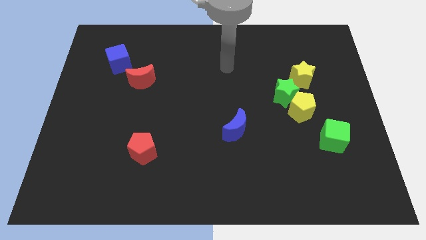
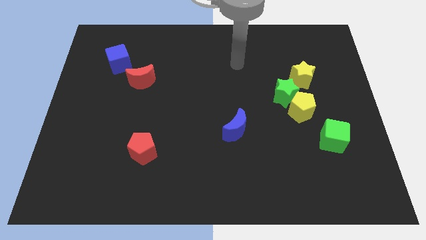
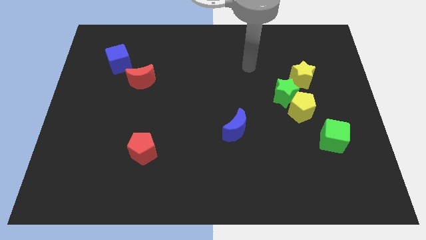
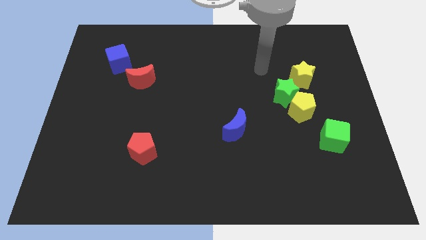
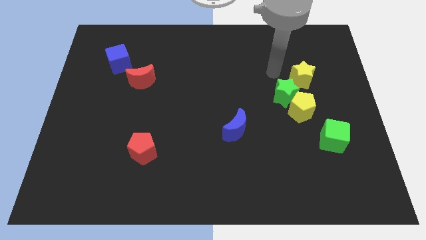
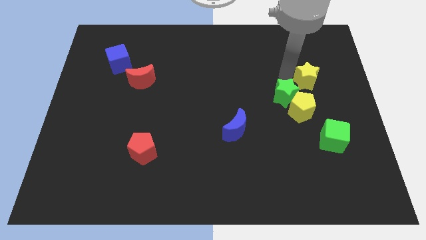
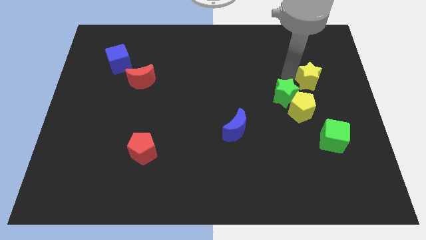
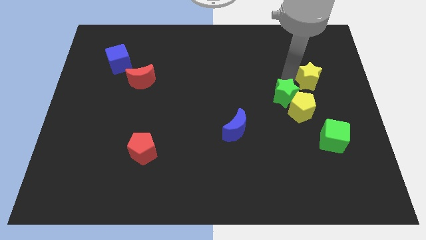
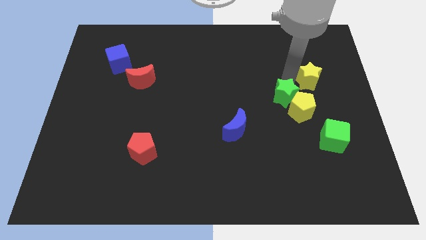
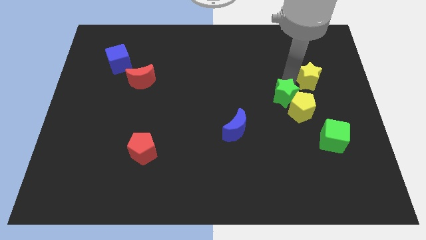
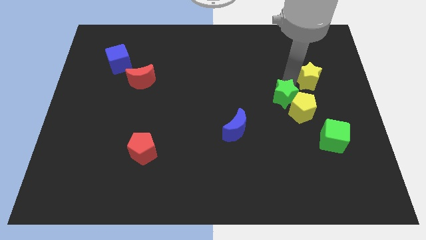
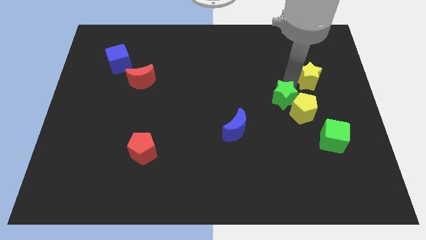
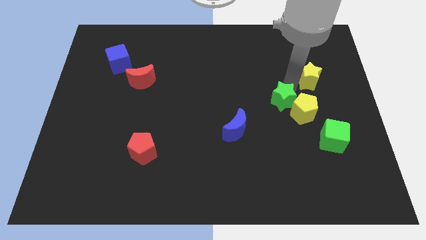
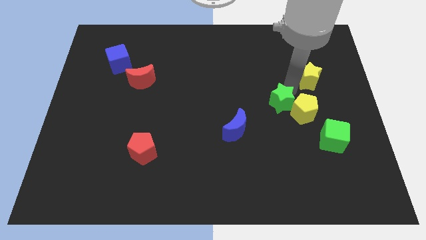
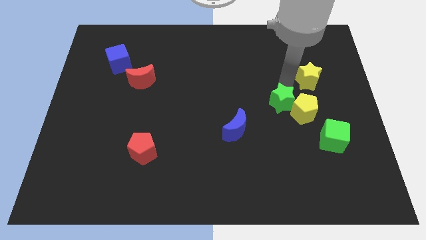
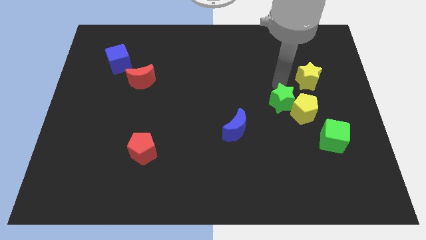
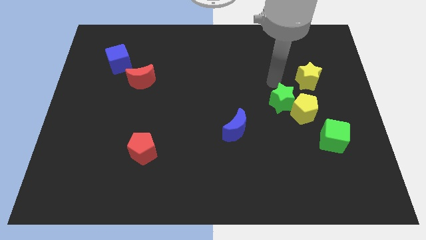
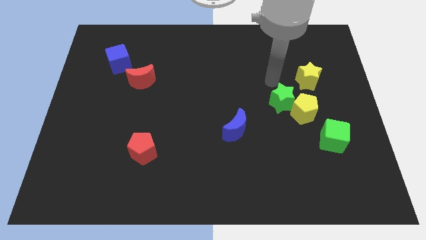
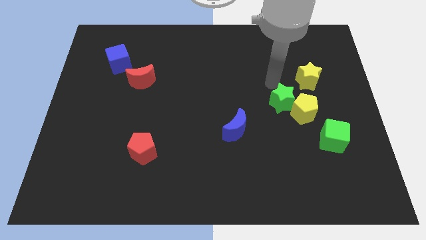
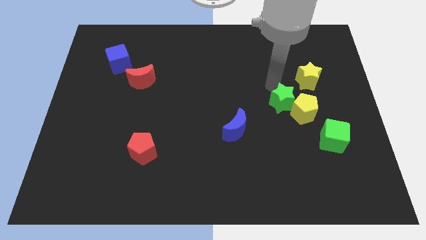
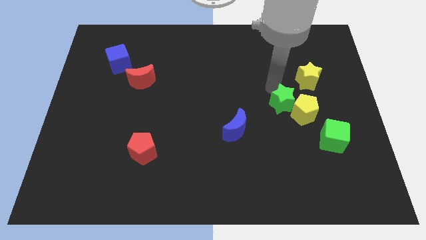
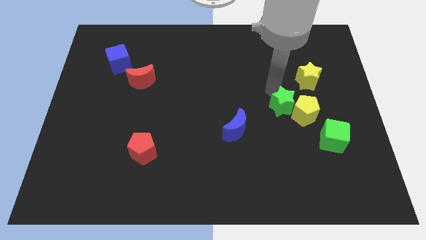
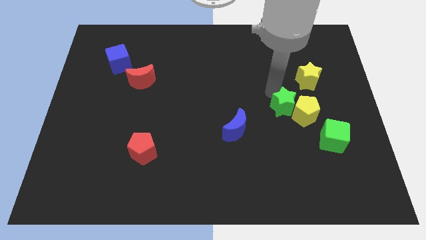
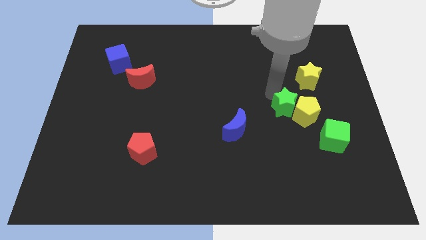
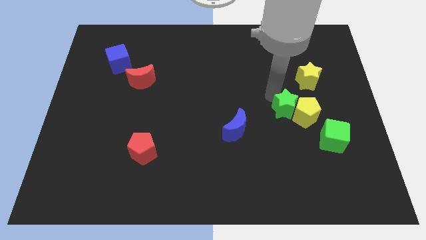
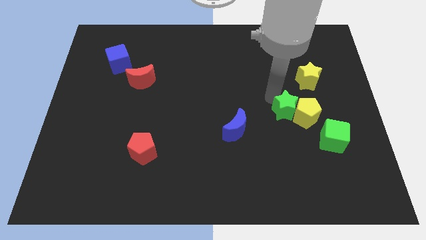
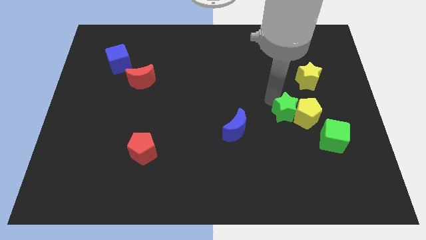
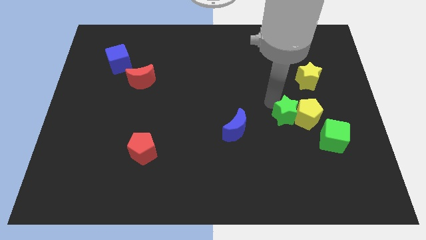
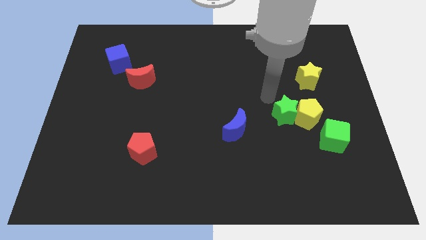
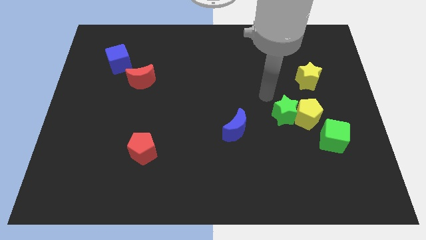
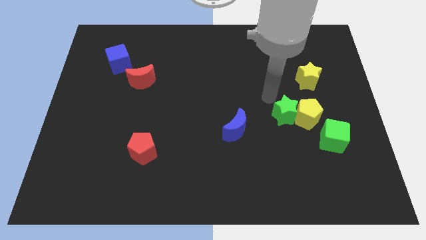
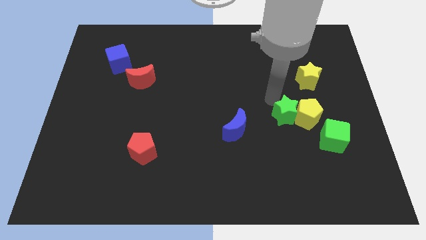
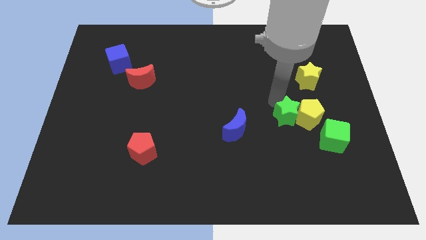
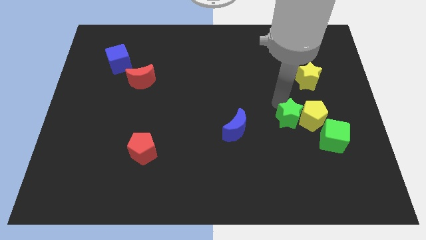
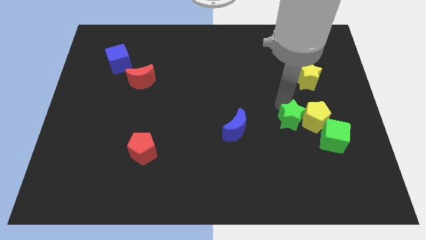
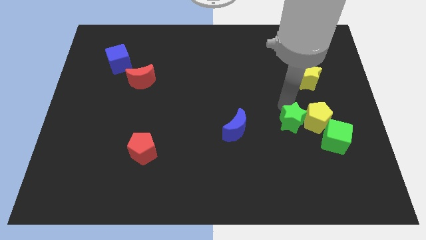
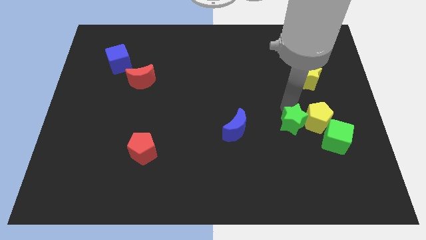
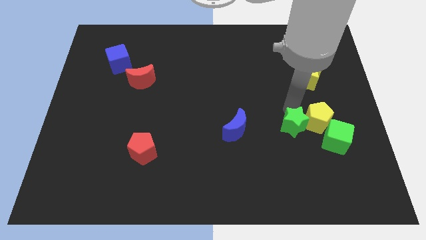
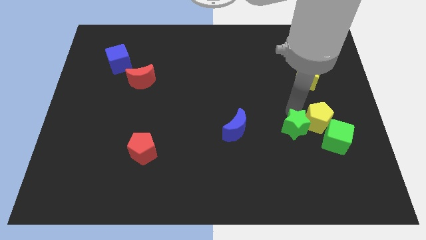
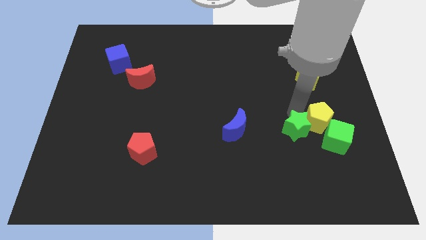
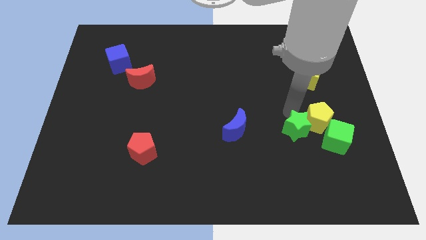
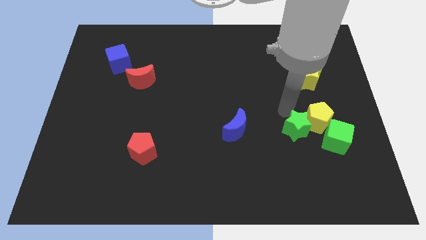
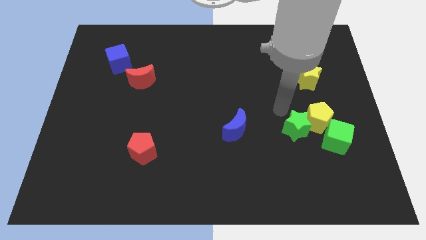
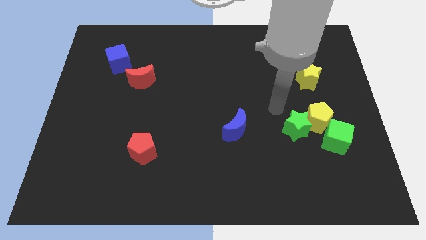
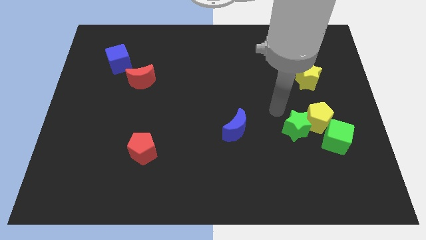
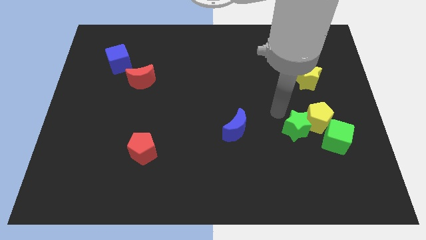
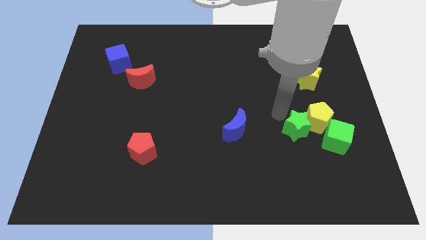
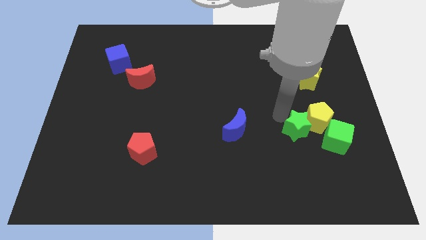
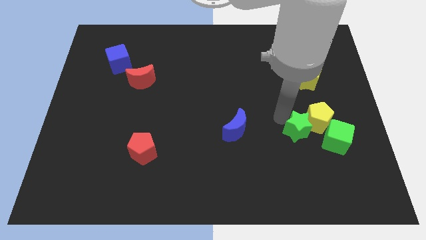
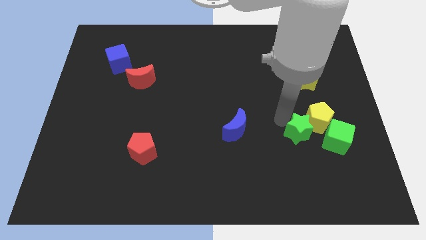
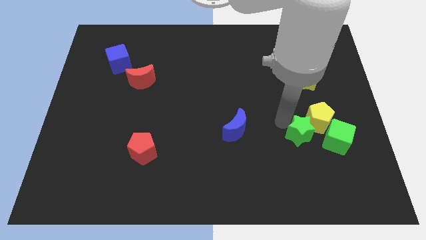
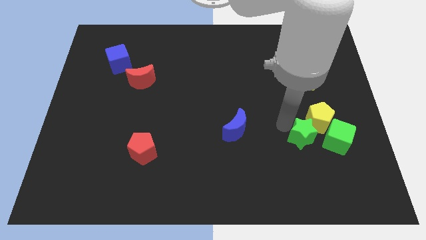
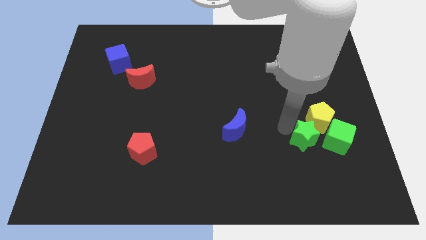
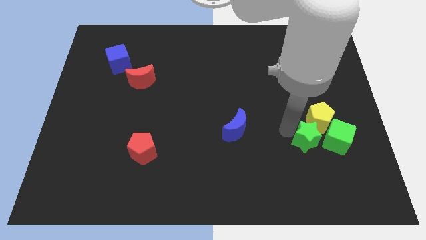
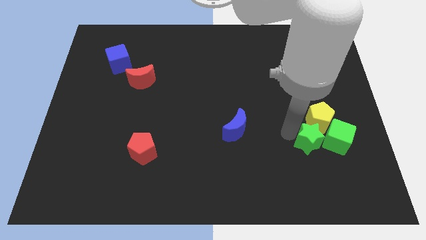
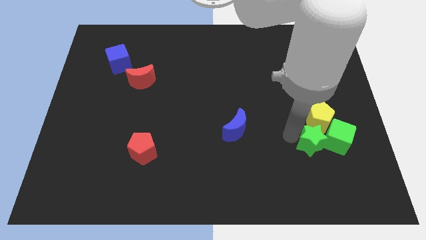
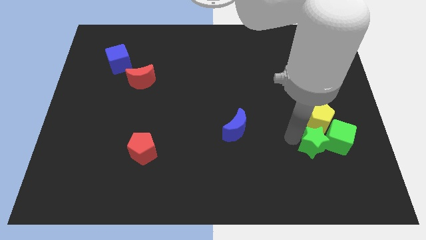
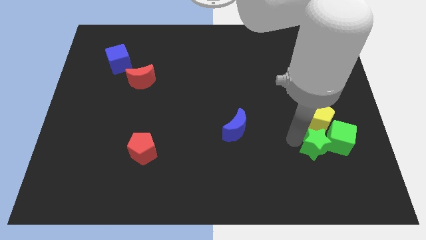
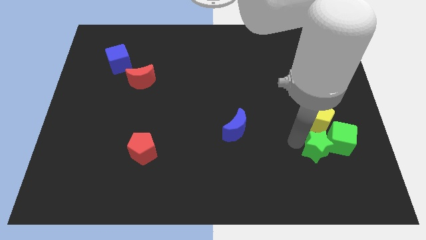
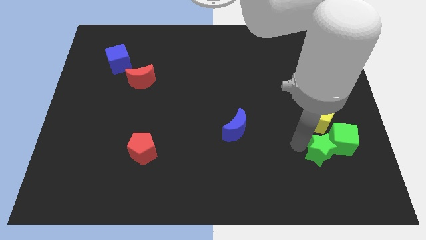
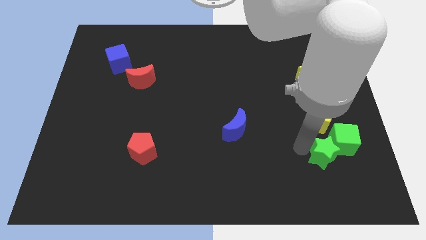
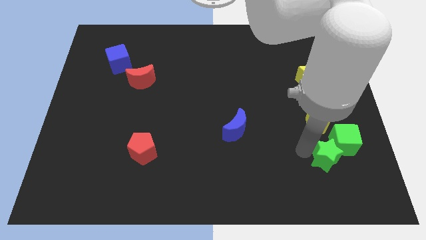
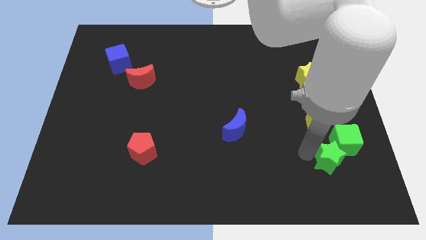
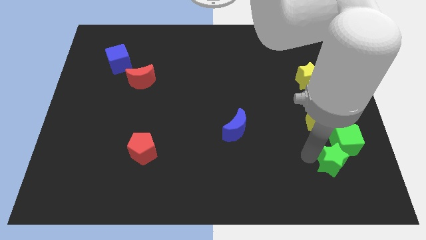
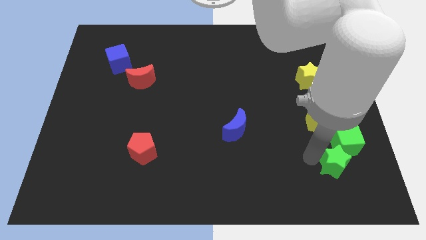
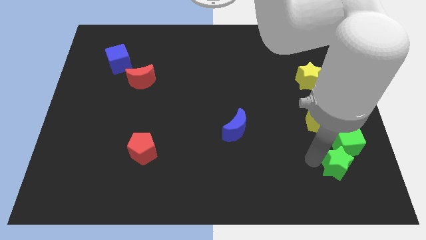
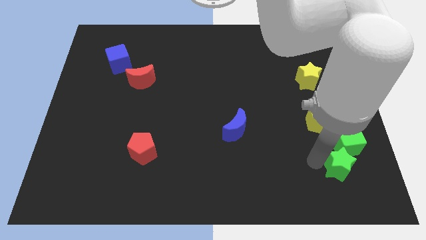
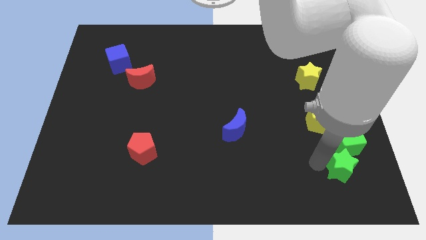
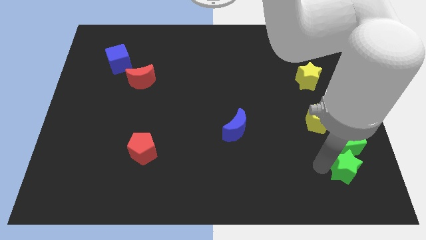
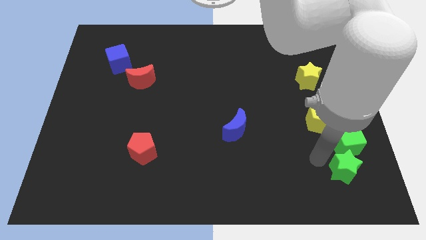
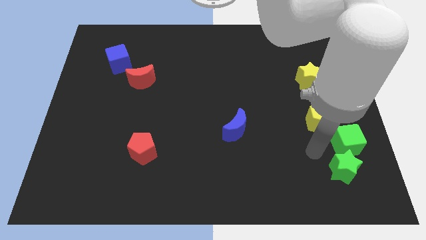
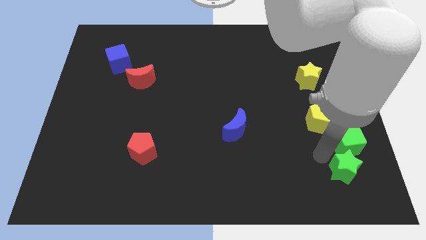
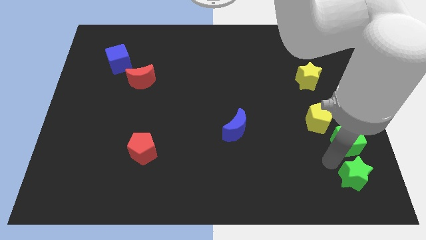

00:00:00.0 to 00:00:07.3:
slide the green star to the bottom right of the board
